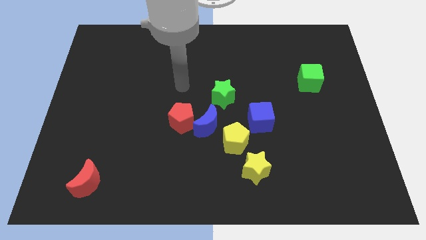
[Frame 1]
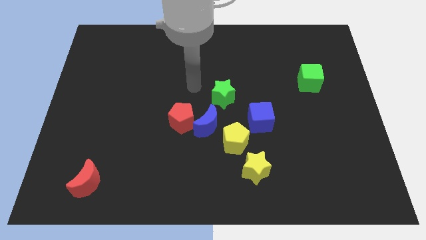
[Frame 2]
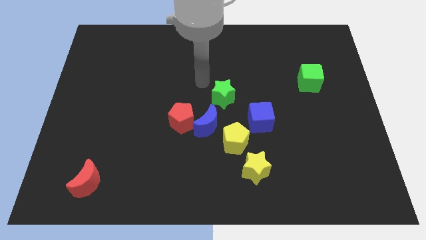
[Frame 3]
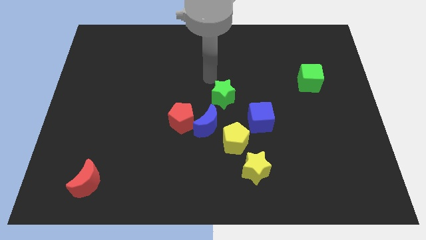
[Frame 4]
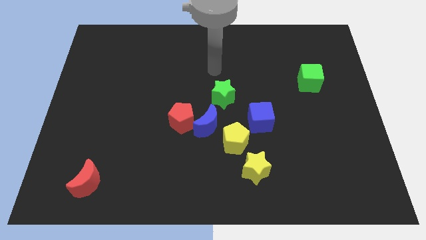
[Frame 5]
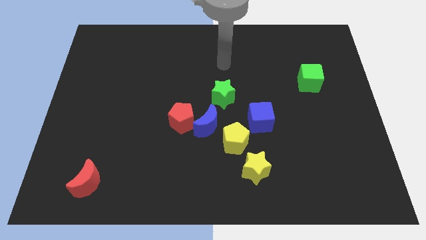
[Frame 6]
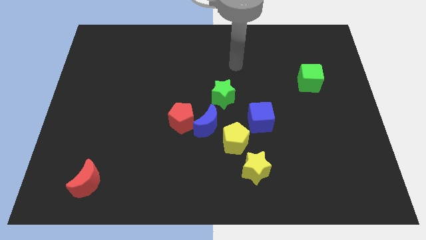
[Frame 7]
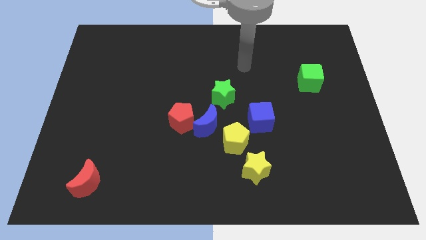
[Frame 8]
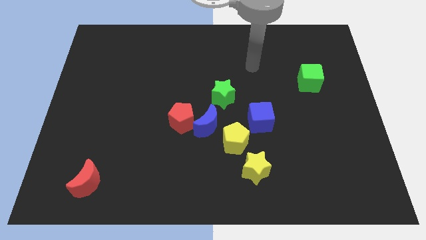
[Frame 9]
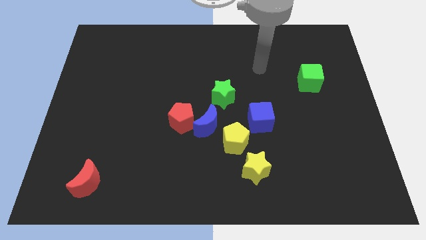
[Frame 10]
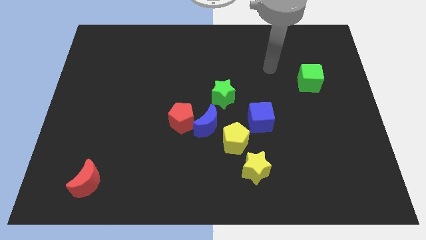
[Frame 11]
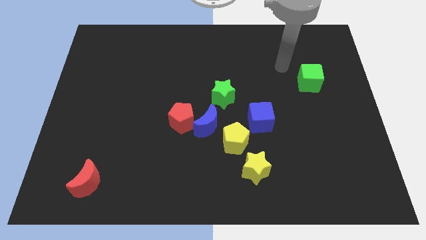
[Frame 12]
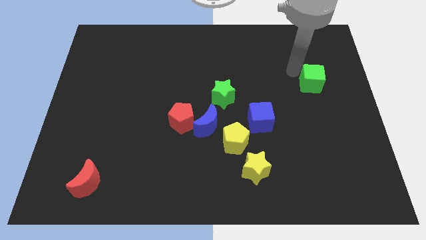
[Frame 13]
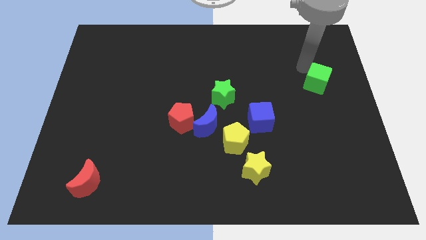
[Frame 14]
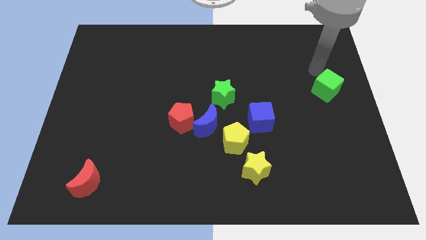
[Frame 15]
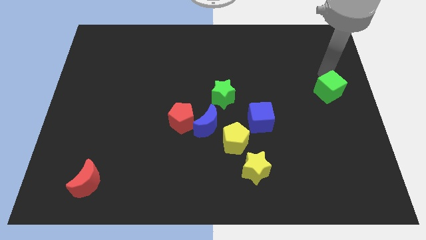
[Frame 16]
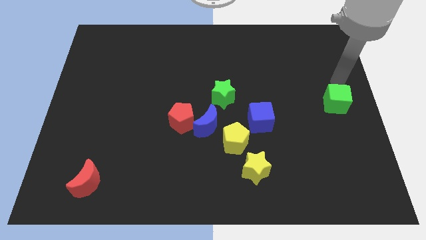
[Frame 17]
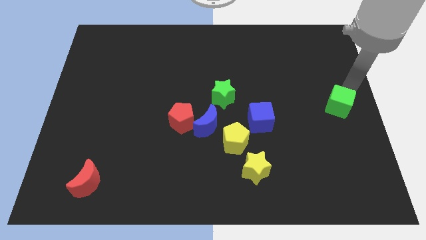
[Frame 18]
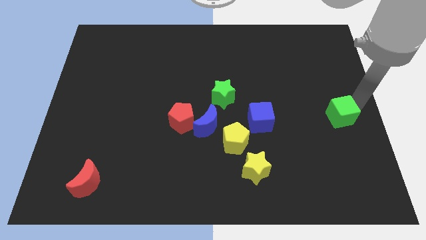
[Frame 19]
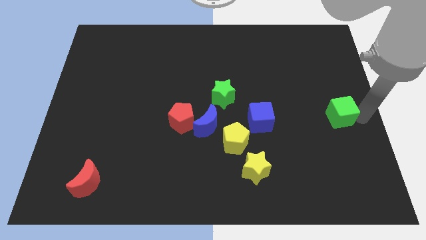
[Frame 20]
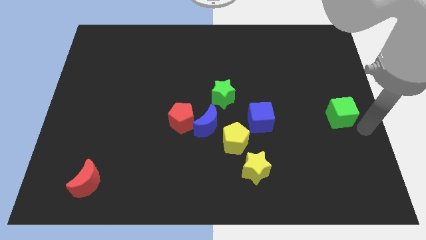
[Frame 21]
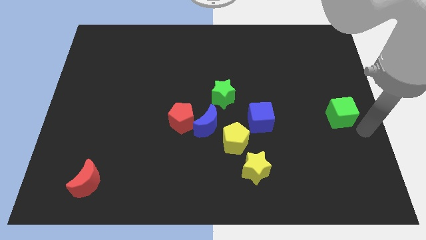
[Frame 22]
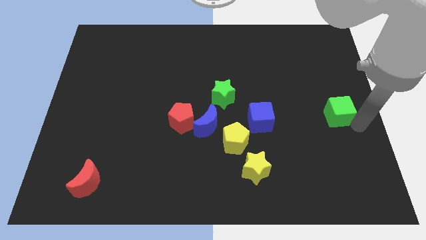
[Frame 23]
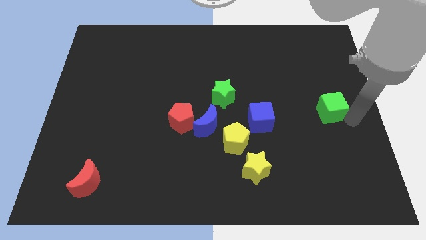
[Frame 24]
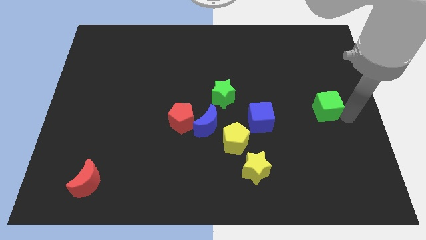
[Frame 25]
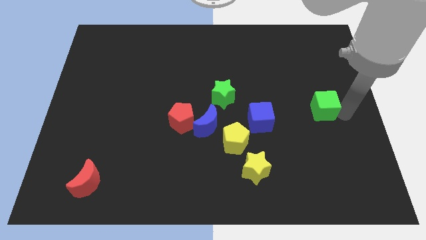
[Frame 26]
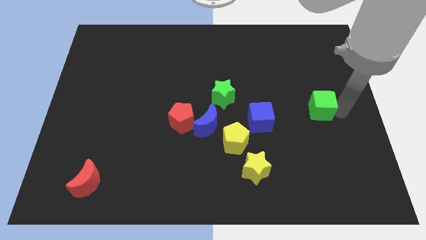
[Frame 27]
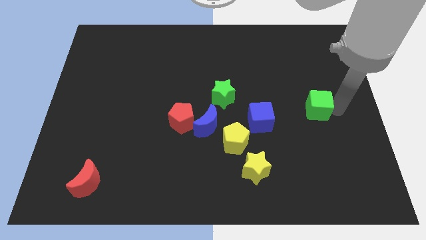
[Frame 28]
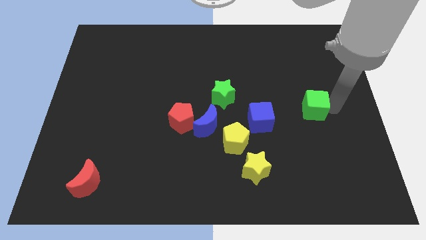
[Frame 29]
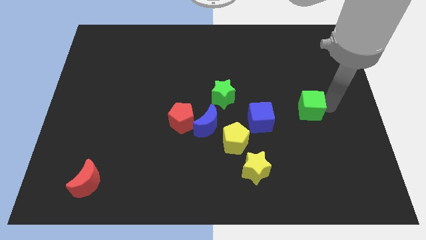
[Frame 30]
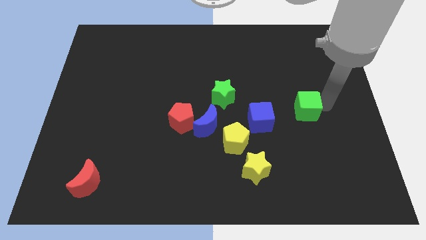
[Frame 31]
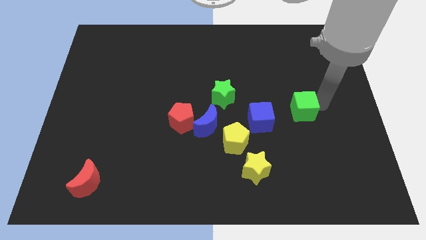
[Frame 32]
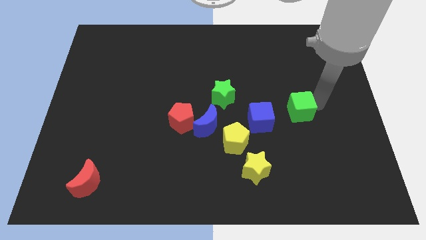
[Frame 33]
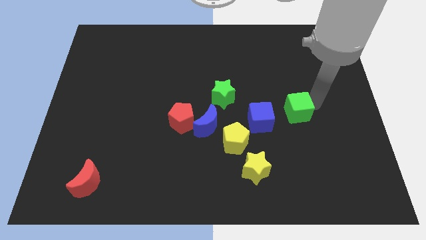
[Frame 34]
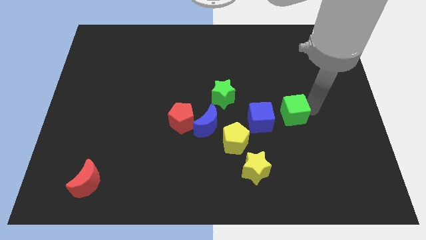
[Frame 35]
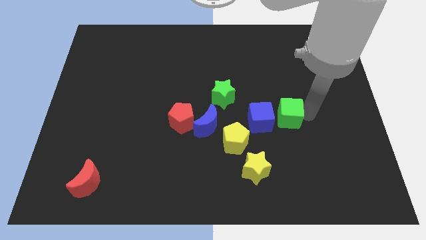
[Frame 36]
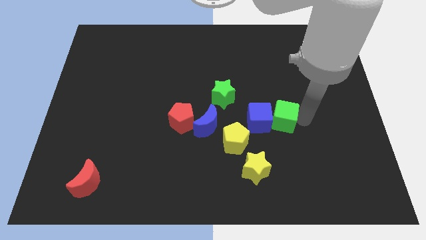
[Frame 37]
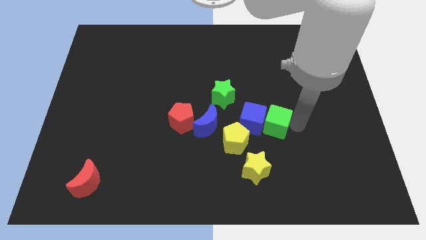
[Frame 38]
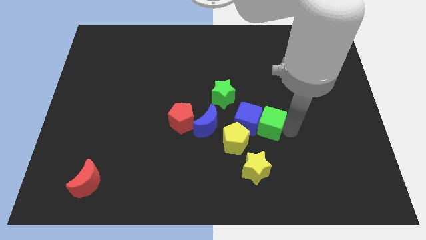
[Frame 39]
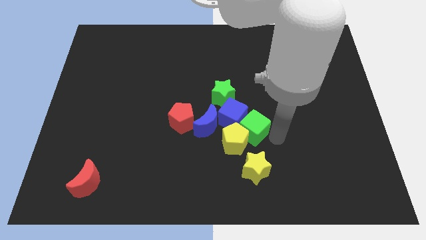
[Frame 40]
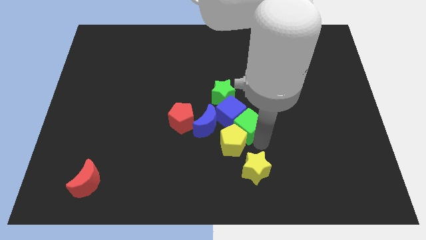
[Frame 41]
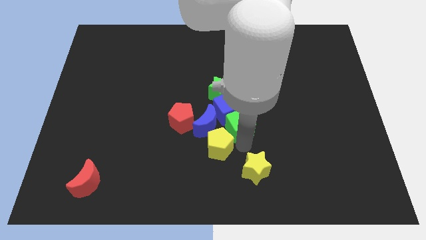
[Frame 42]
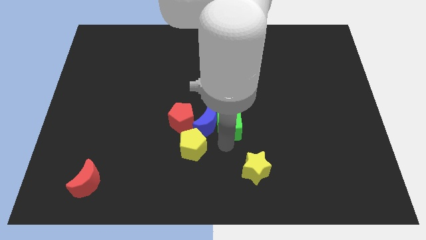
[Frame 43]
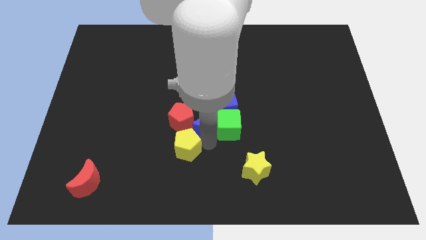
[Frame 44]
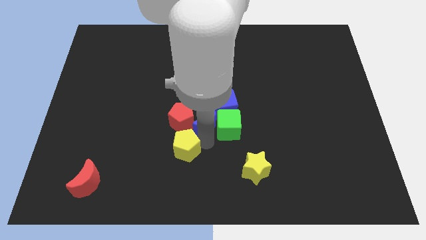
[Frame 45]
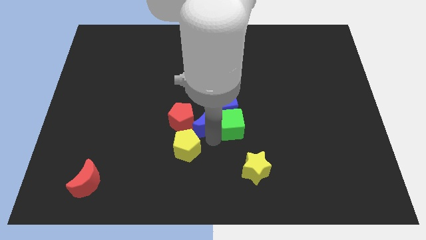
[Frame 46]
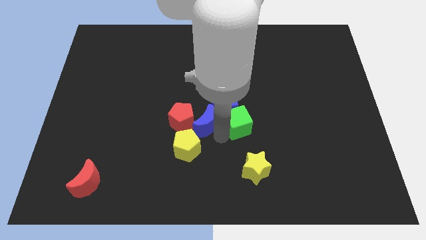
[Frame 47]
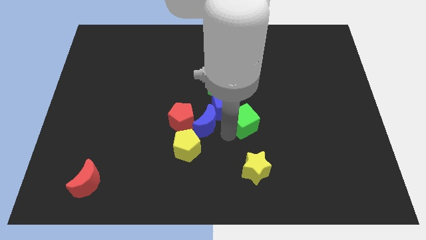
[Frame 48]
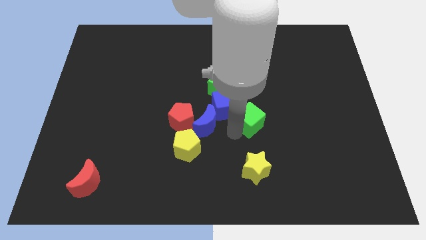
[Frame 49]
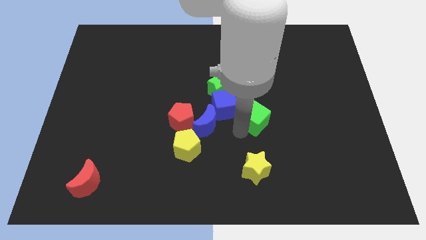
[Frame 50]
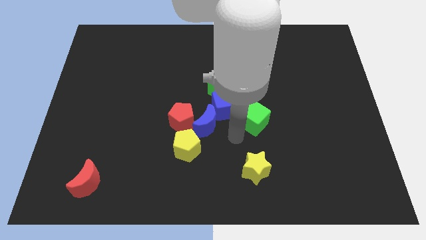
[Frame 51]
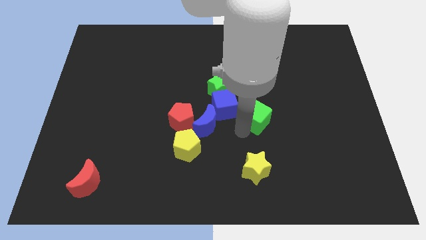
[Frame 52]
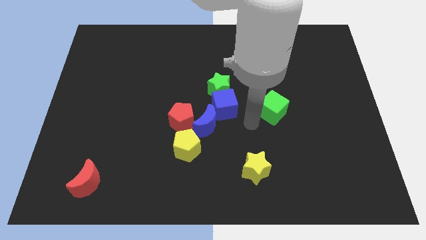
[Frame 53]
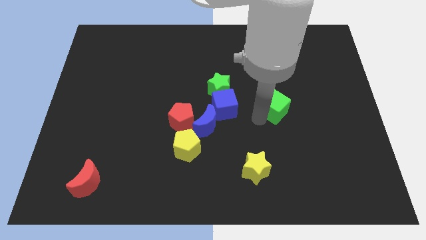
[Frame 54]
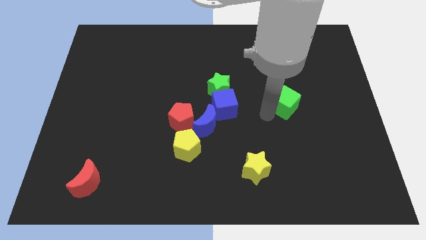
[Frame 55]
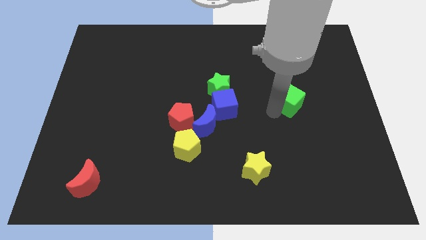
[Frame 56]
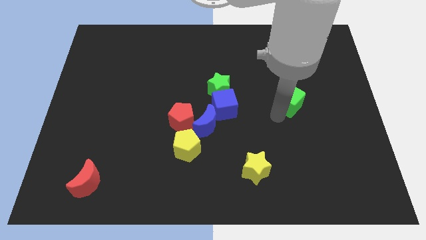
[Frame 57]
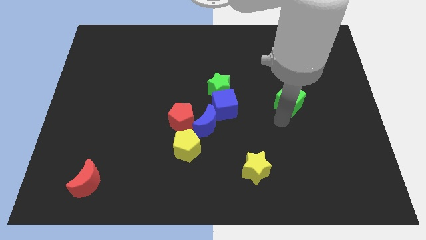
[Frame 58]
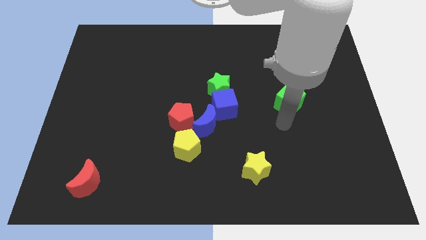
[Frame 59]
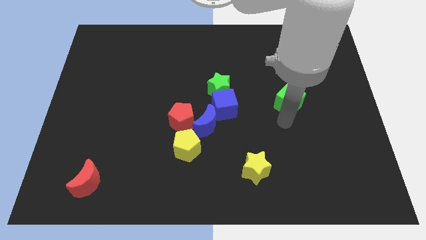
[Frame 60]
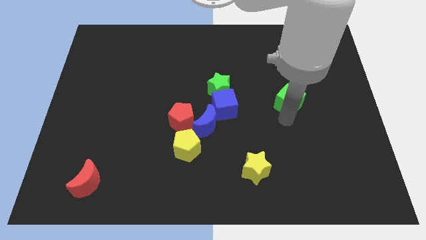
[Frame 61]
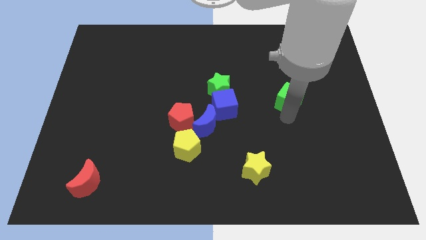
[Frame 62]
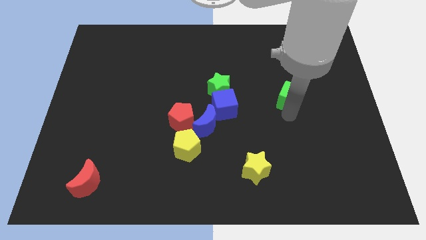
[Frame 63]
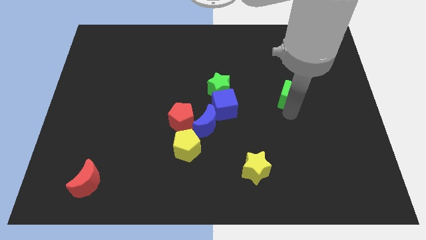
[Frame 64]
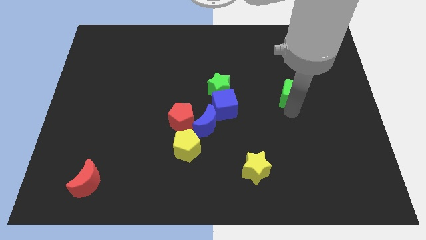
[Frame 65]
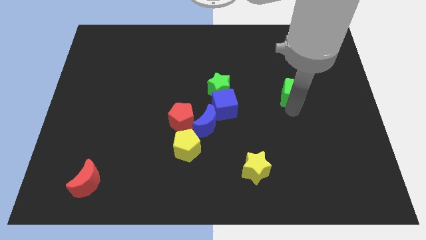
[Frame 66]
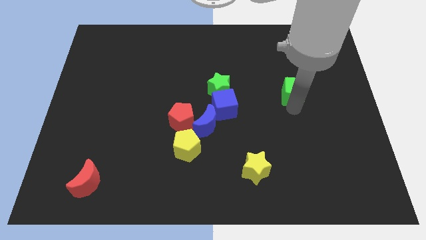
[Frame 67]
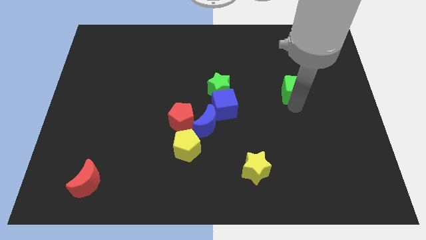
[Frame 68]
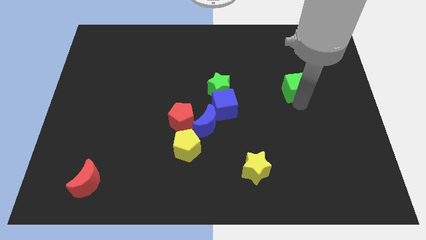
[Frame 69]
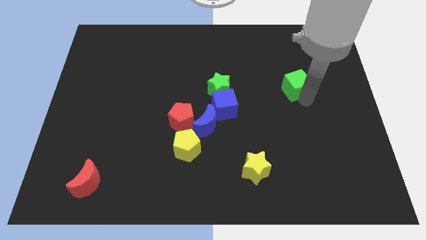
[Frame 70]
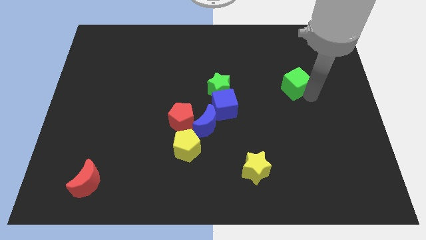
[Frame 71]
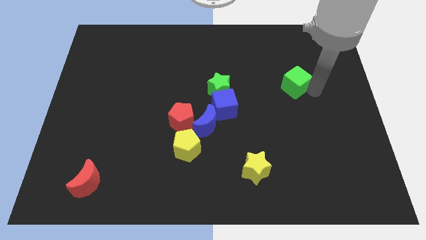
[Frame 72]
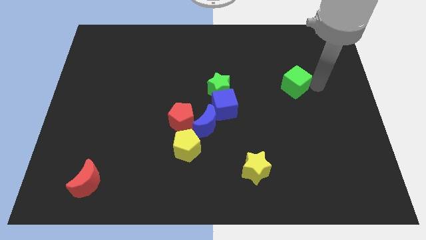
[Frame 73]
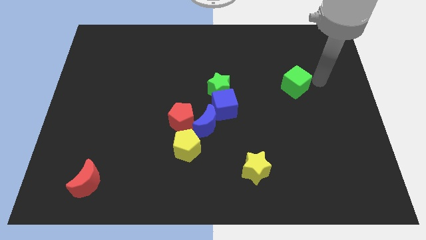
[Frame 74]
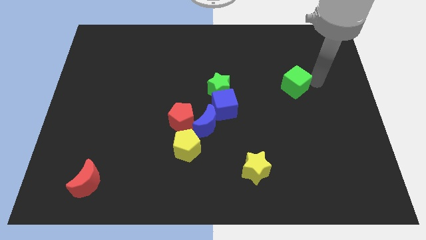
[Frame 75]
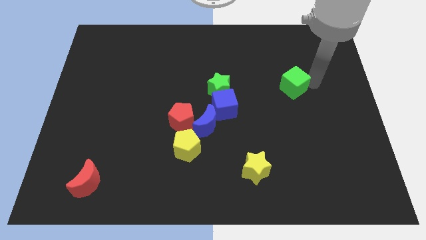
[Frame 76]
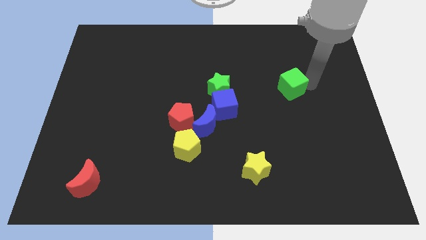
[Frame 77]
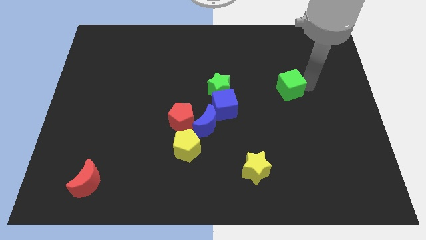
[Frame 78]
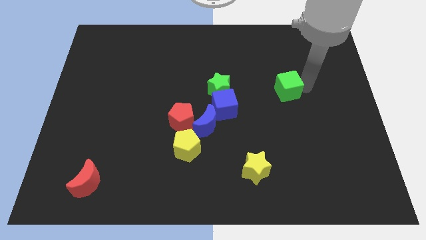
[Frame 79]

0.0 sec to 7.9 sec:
move the green cube to the right side of the green star
